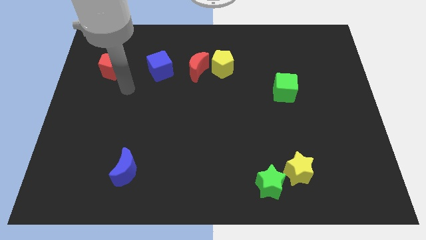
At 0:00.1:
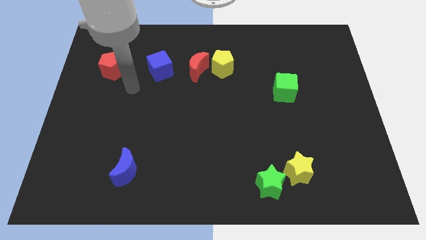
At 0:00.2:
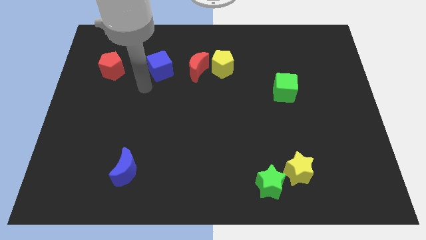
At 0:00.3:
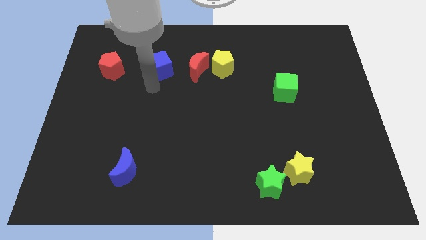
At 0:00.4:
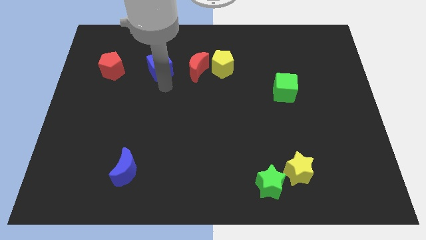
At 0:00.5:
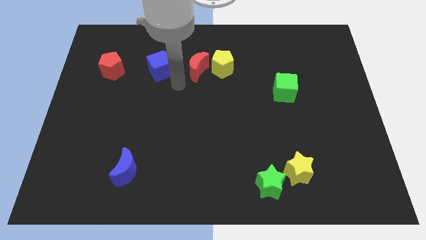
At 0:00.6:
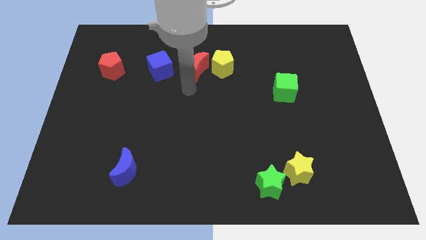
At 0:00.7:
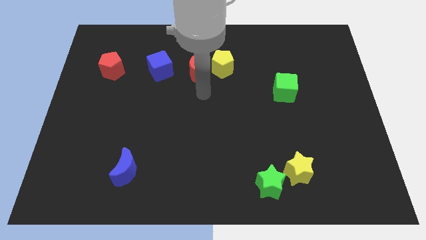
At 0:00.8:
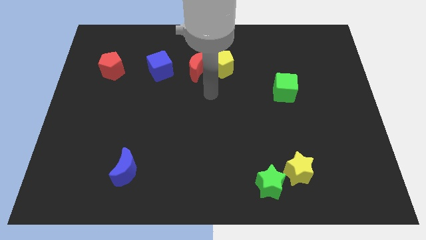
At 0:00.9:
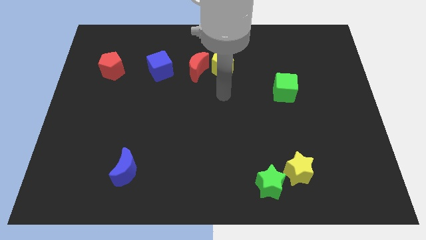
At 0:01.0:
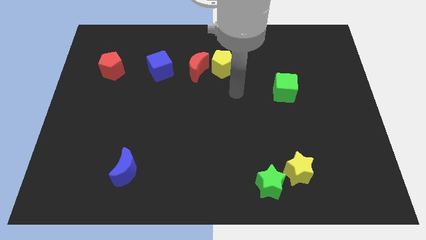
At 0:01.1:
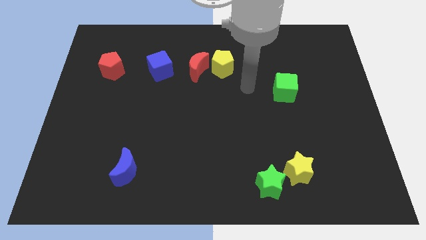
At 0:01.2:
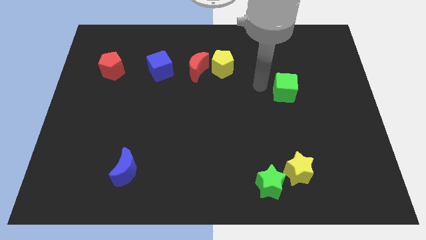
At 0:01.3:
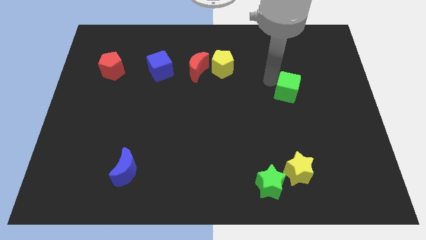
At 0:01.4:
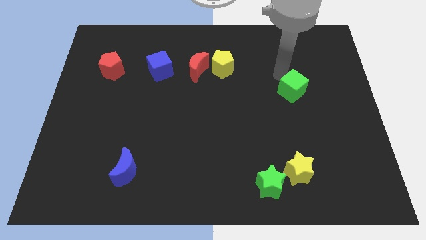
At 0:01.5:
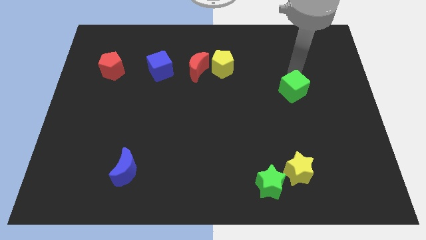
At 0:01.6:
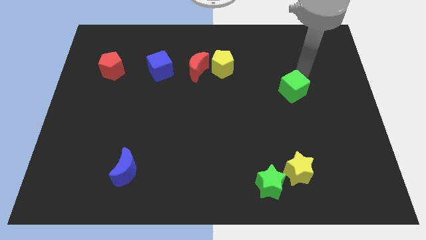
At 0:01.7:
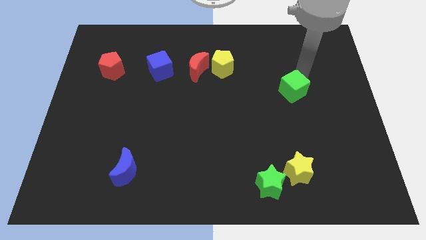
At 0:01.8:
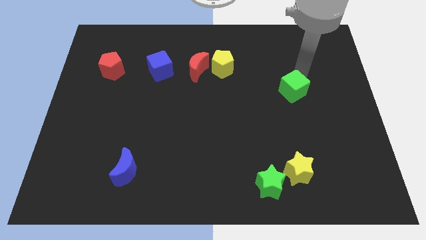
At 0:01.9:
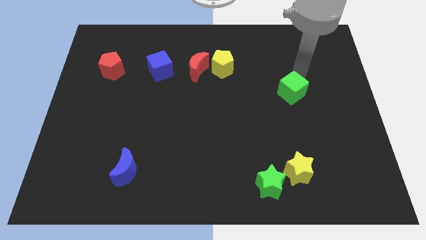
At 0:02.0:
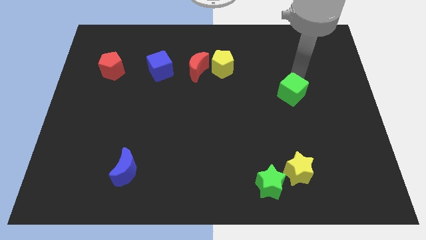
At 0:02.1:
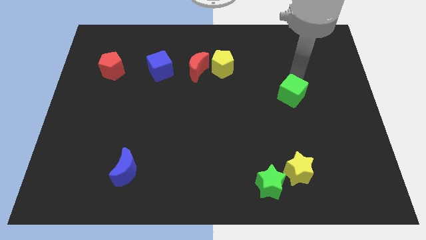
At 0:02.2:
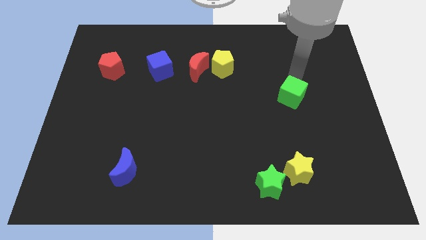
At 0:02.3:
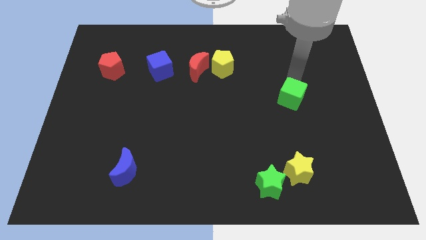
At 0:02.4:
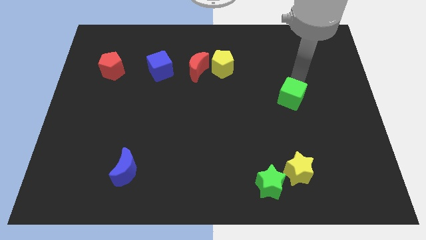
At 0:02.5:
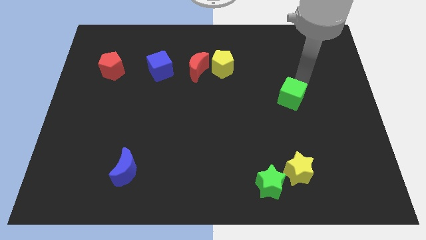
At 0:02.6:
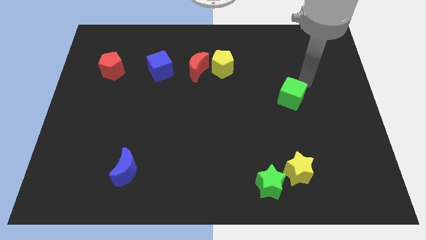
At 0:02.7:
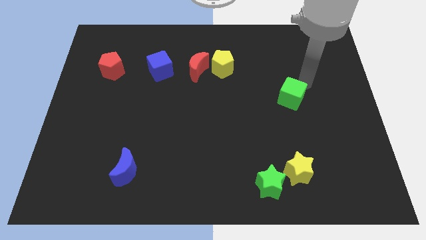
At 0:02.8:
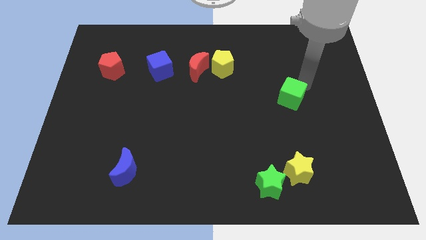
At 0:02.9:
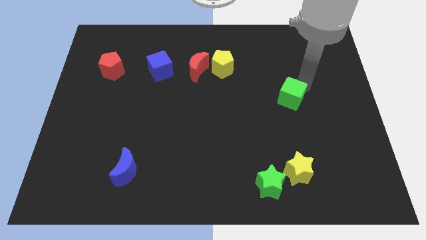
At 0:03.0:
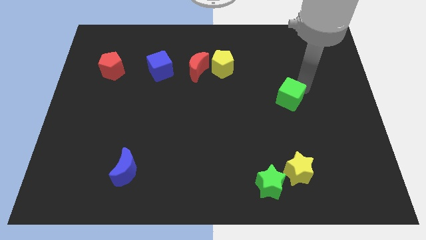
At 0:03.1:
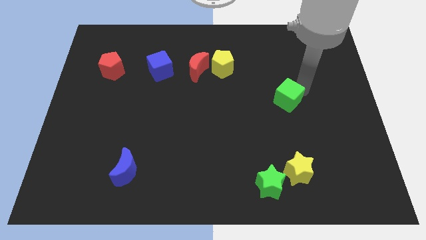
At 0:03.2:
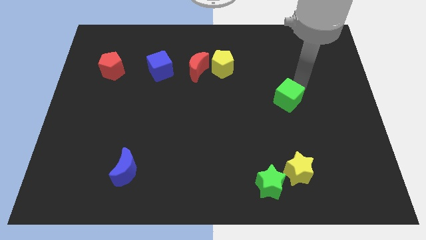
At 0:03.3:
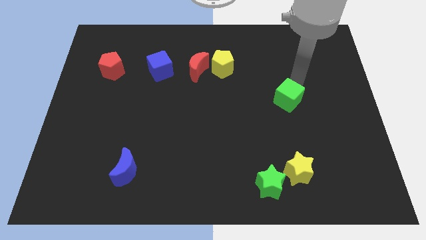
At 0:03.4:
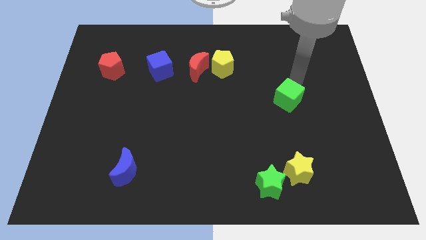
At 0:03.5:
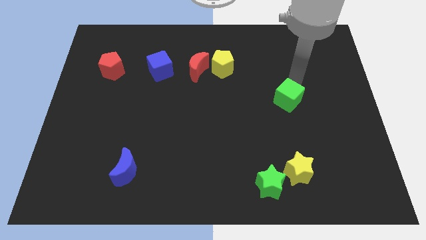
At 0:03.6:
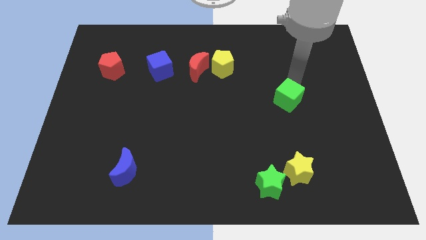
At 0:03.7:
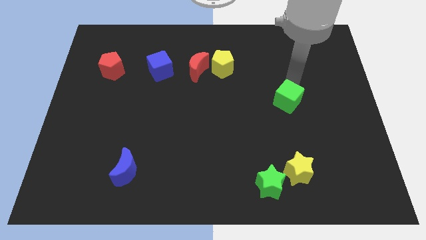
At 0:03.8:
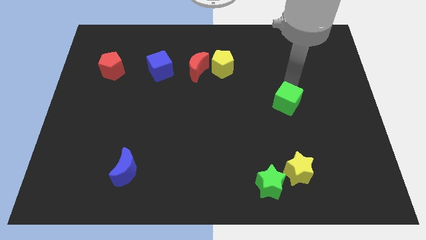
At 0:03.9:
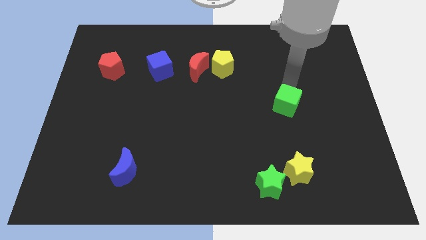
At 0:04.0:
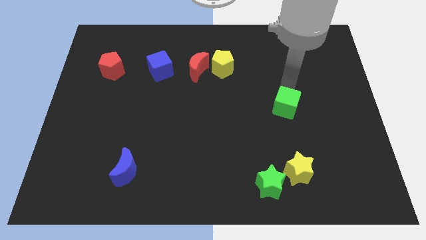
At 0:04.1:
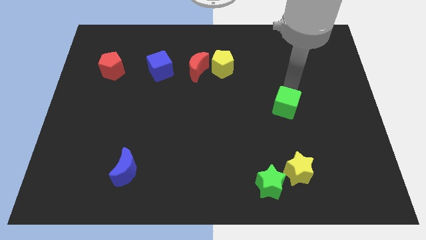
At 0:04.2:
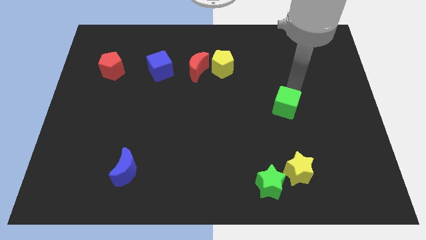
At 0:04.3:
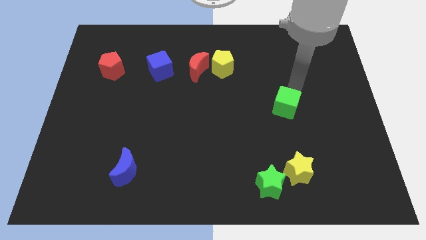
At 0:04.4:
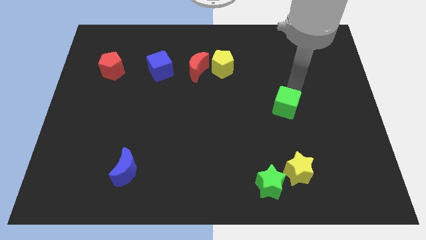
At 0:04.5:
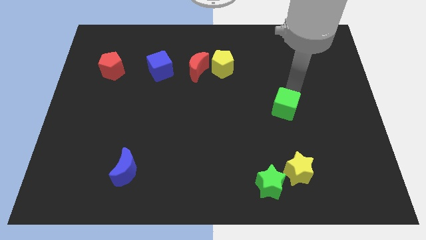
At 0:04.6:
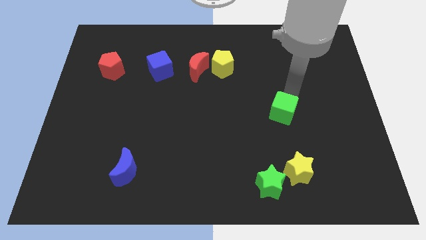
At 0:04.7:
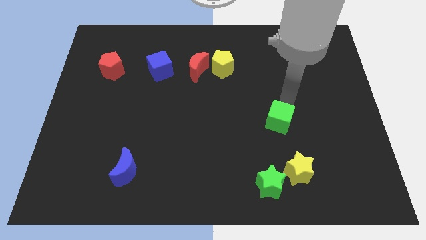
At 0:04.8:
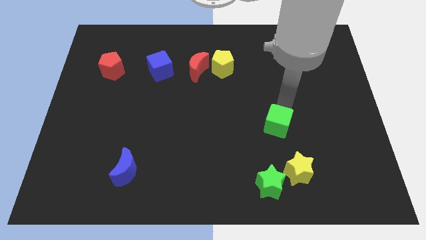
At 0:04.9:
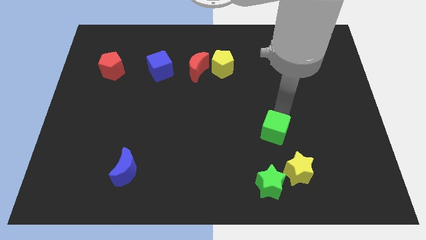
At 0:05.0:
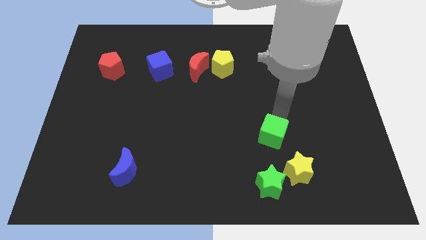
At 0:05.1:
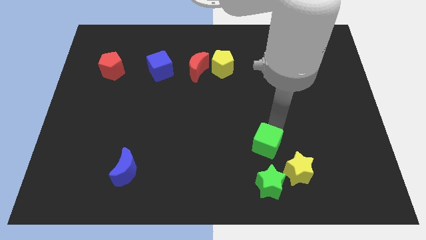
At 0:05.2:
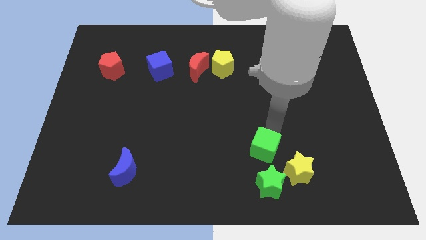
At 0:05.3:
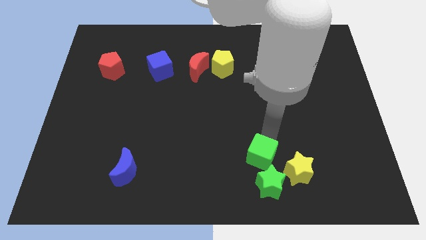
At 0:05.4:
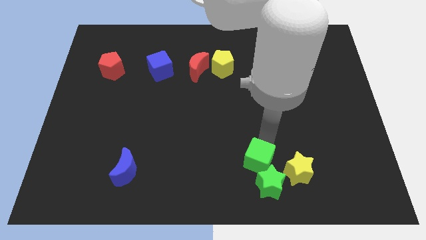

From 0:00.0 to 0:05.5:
slide the green cube towards the green star

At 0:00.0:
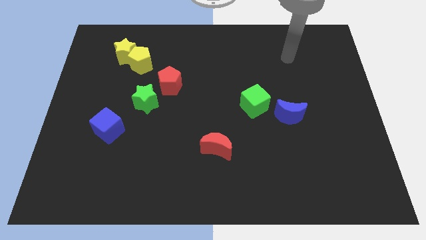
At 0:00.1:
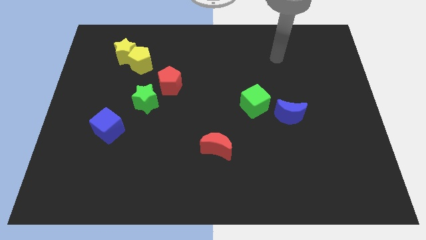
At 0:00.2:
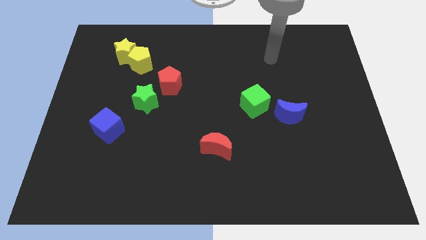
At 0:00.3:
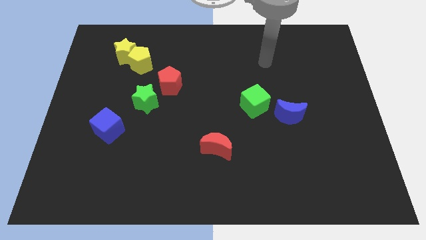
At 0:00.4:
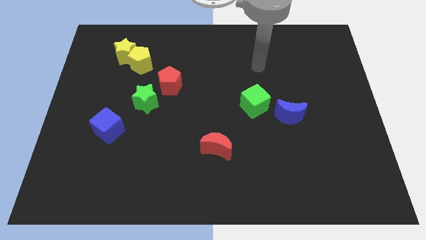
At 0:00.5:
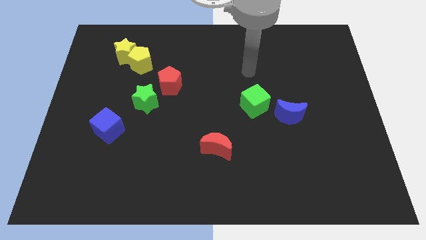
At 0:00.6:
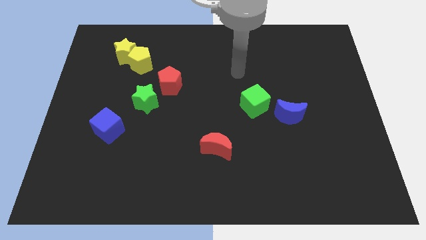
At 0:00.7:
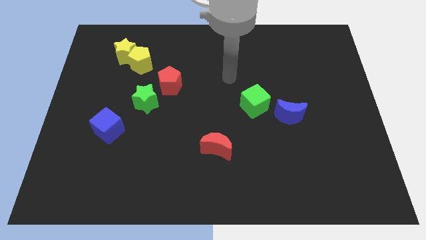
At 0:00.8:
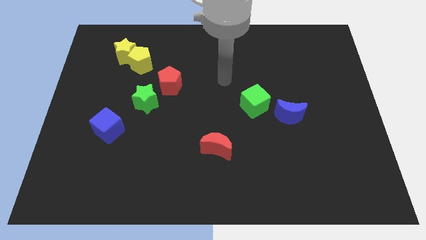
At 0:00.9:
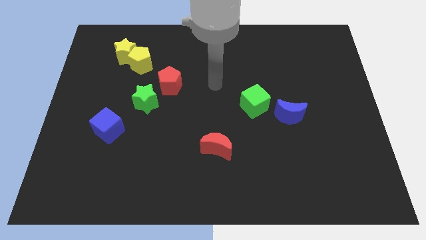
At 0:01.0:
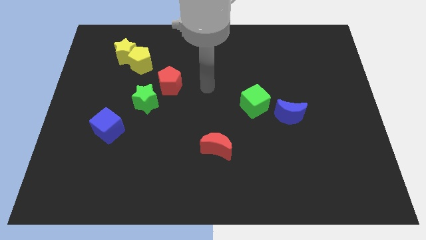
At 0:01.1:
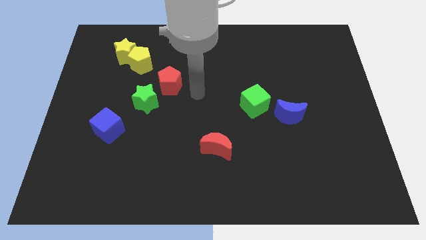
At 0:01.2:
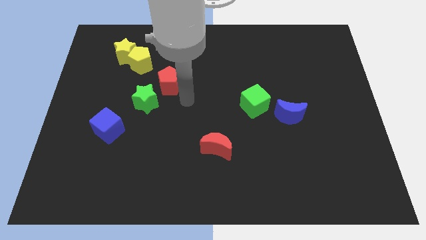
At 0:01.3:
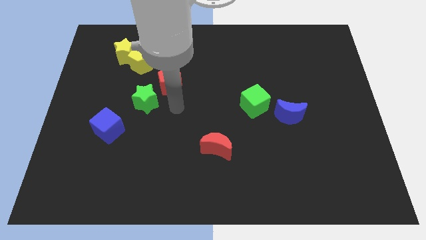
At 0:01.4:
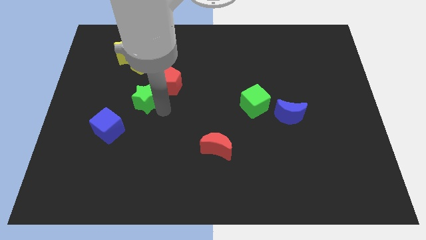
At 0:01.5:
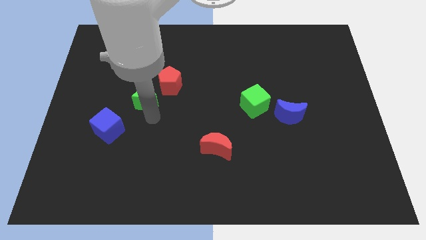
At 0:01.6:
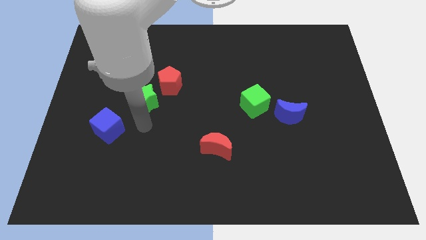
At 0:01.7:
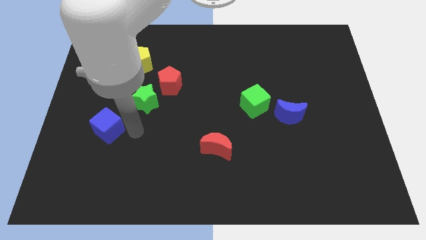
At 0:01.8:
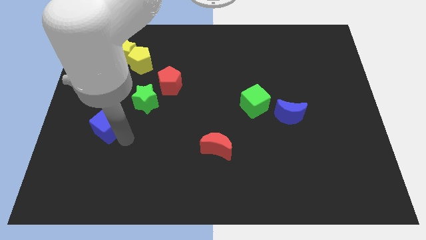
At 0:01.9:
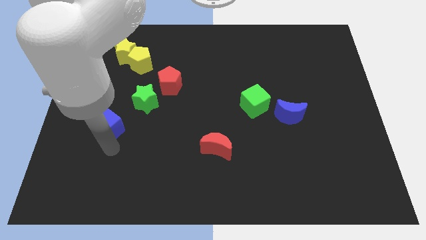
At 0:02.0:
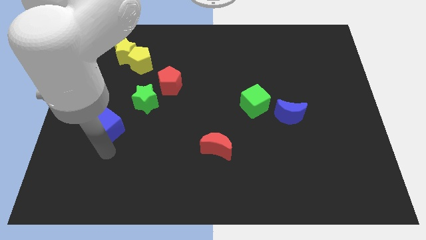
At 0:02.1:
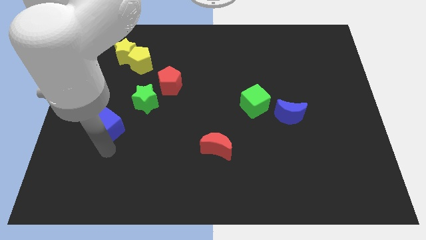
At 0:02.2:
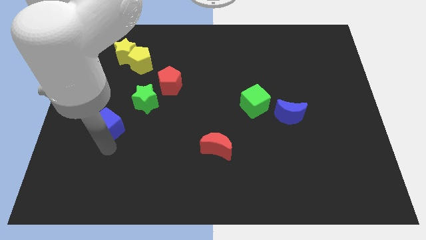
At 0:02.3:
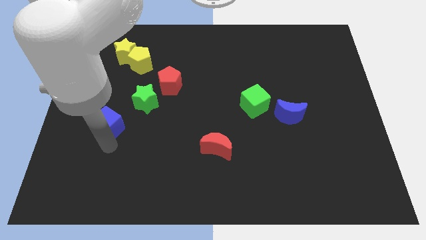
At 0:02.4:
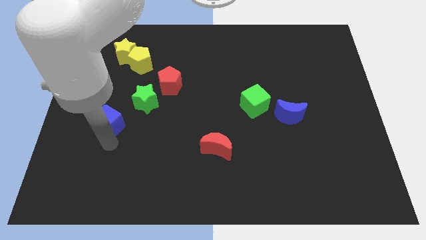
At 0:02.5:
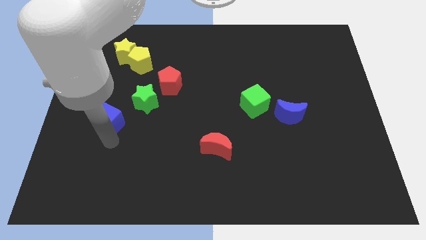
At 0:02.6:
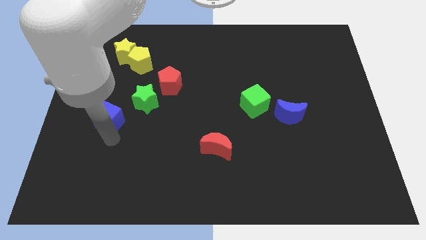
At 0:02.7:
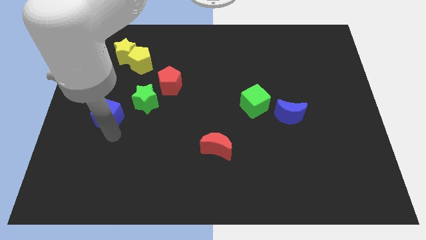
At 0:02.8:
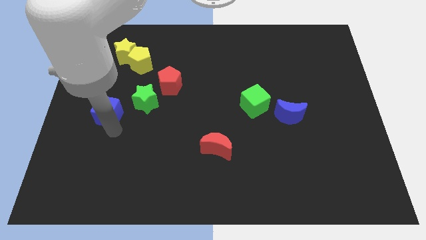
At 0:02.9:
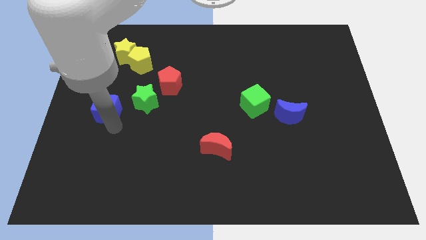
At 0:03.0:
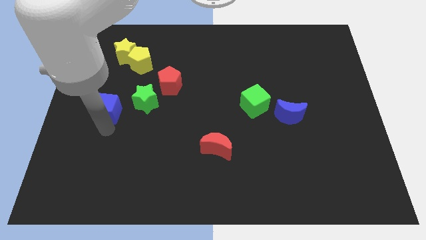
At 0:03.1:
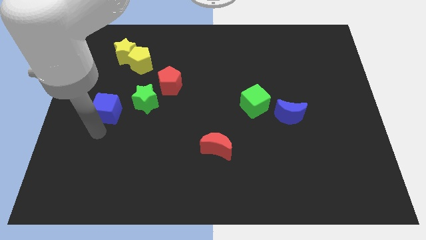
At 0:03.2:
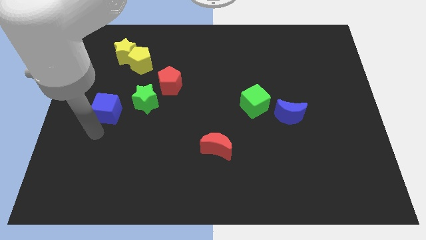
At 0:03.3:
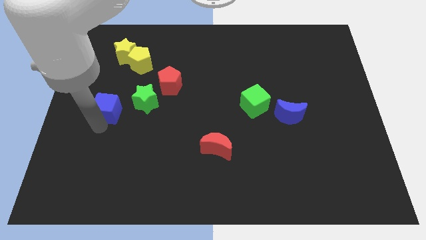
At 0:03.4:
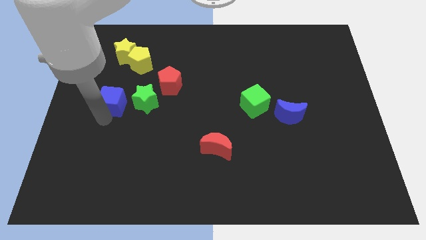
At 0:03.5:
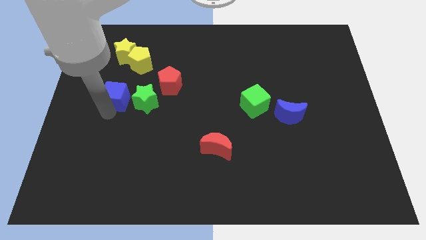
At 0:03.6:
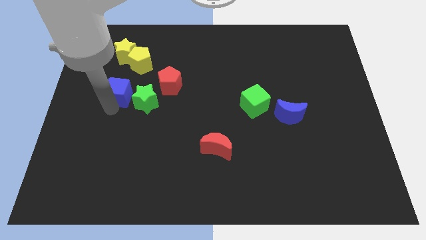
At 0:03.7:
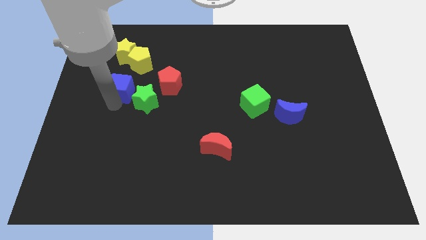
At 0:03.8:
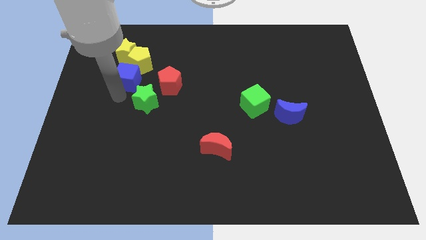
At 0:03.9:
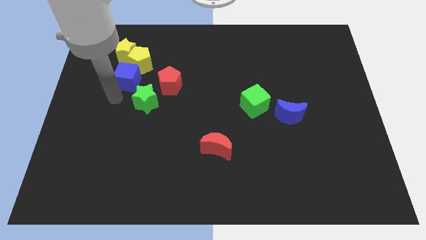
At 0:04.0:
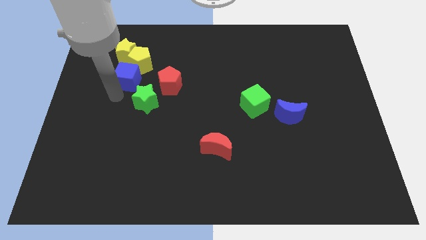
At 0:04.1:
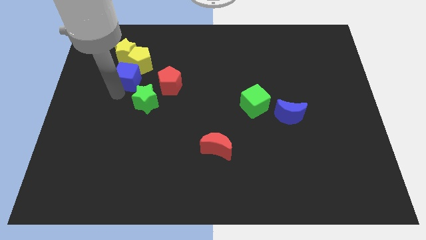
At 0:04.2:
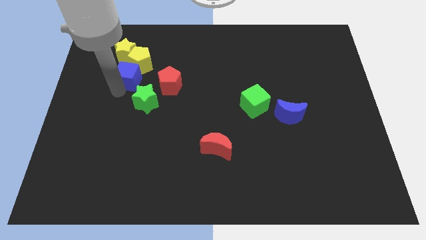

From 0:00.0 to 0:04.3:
push the blue cube next to the yellow pentagon
